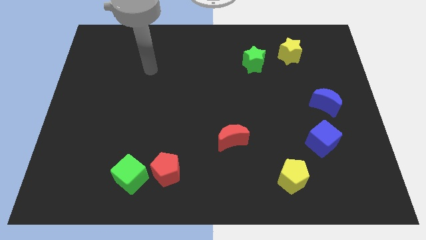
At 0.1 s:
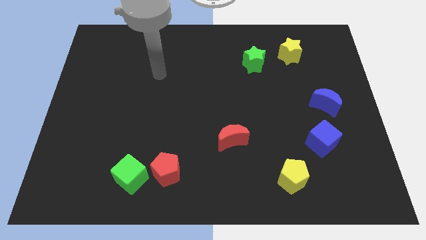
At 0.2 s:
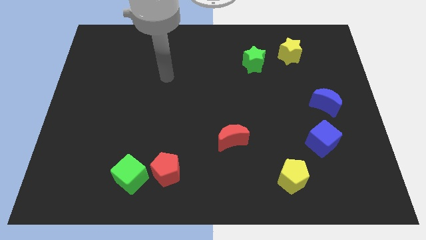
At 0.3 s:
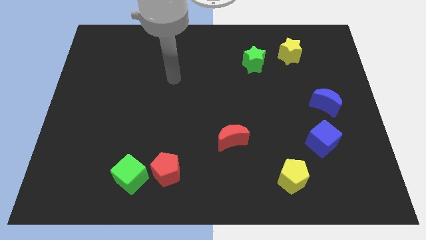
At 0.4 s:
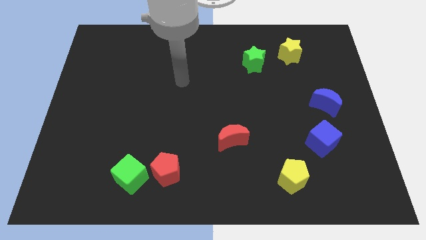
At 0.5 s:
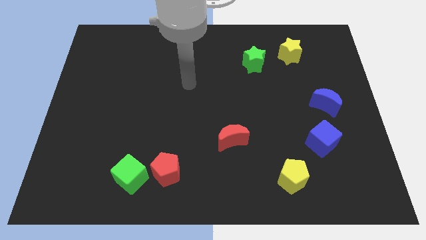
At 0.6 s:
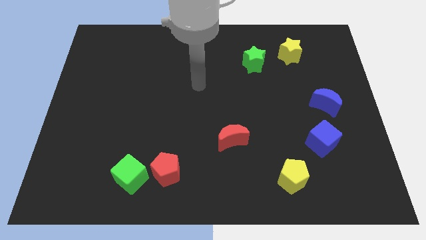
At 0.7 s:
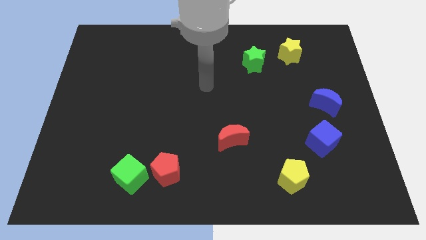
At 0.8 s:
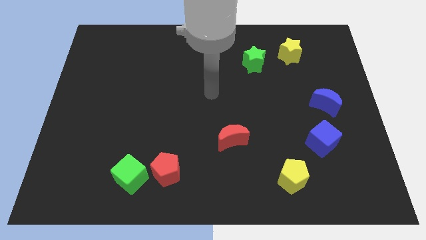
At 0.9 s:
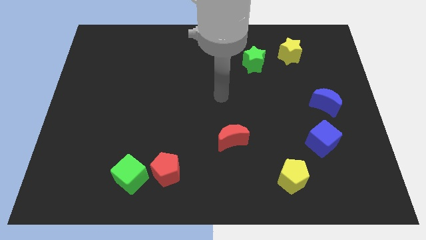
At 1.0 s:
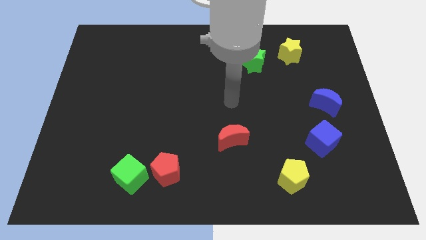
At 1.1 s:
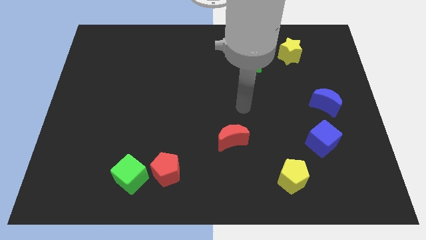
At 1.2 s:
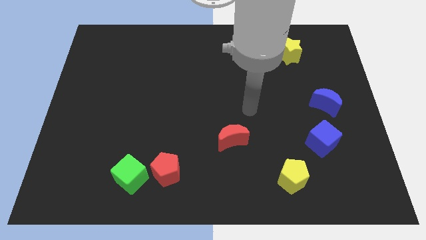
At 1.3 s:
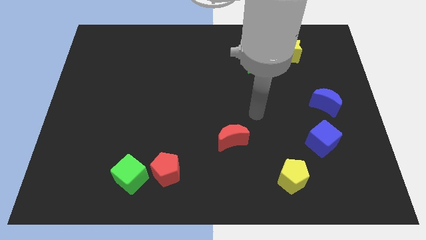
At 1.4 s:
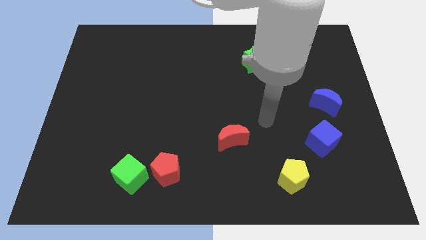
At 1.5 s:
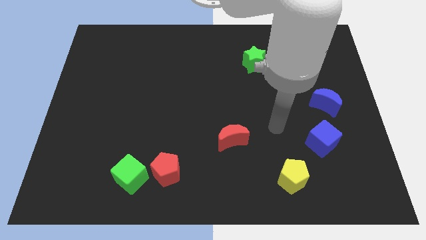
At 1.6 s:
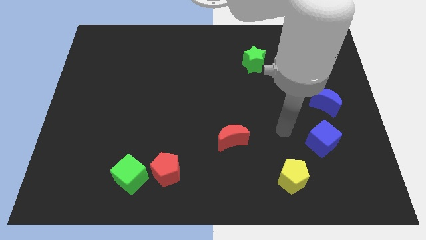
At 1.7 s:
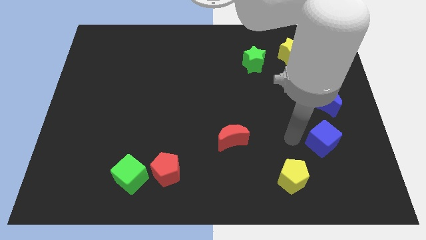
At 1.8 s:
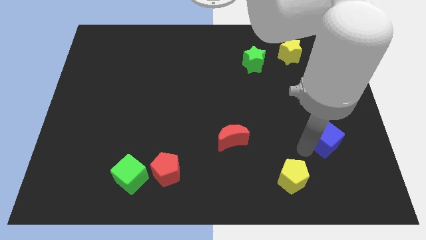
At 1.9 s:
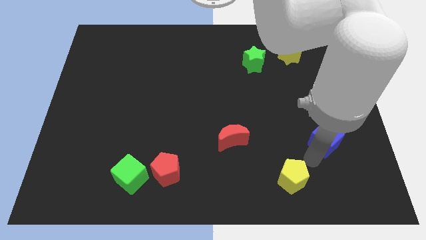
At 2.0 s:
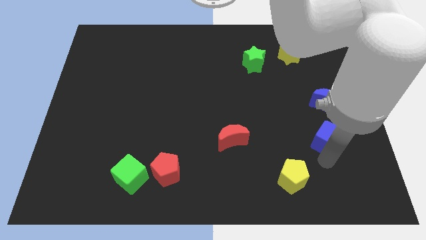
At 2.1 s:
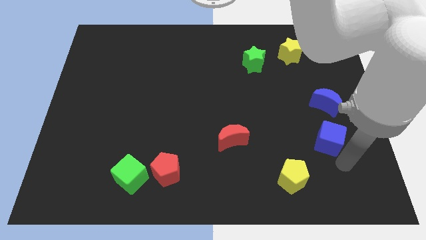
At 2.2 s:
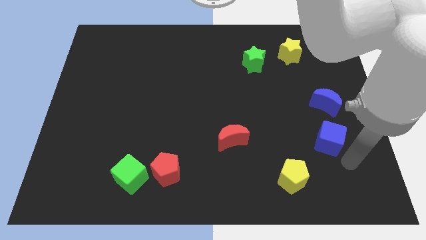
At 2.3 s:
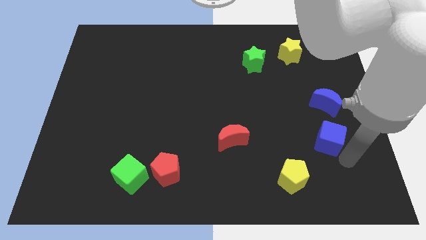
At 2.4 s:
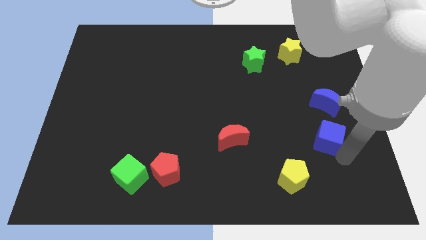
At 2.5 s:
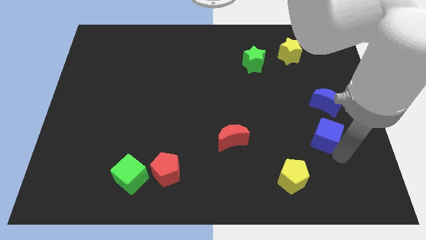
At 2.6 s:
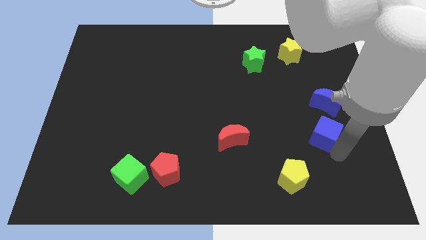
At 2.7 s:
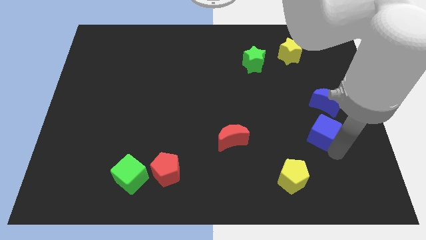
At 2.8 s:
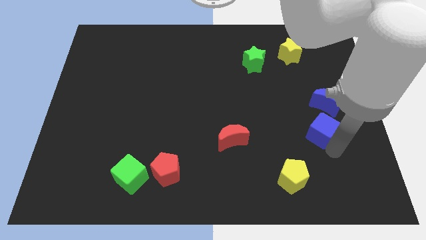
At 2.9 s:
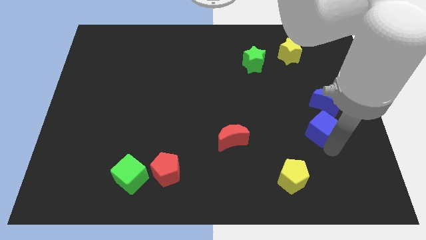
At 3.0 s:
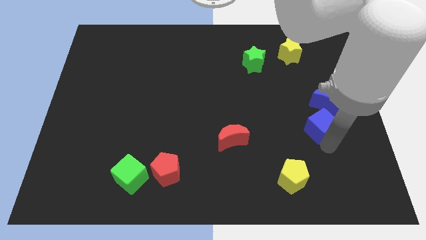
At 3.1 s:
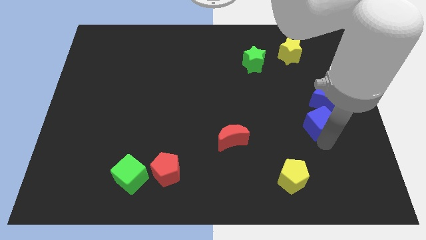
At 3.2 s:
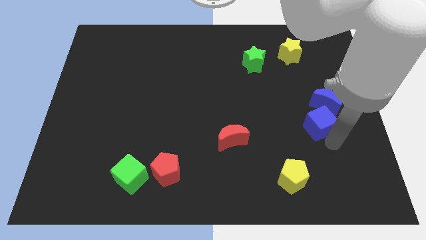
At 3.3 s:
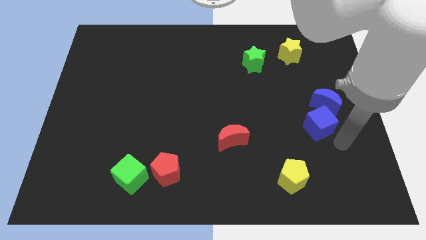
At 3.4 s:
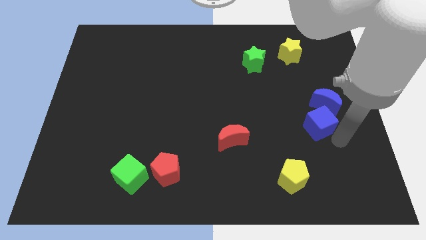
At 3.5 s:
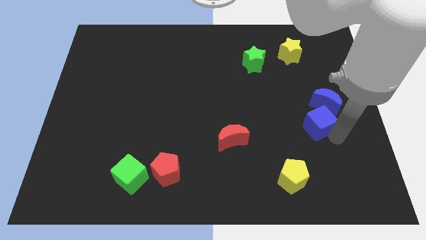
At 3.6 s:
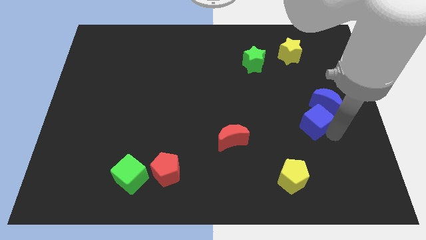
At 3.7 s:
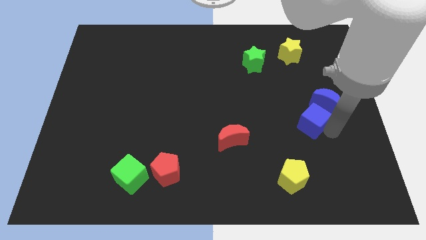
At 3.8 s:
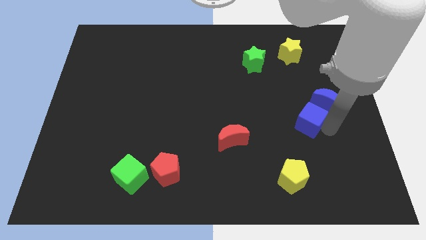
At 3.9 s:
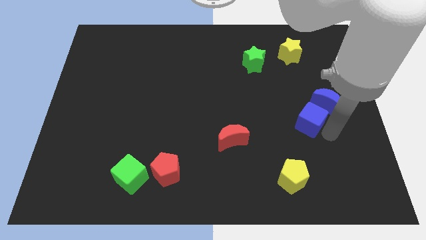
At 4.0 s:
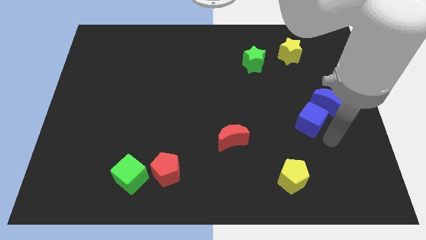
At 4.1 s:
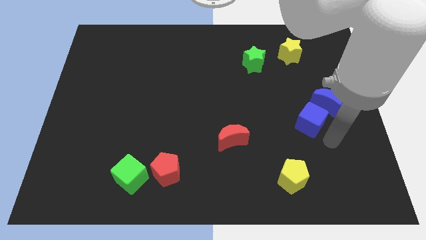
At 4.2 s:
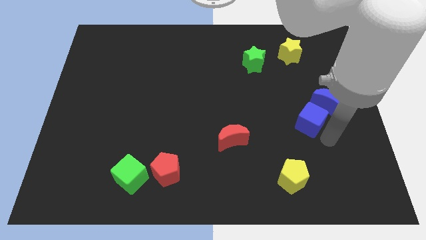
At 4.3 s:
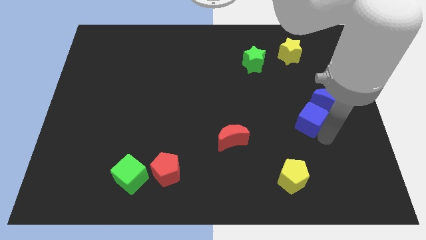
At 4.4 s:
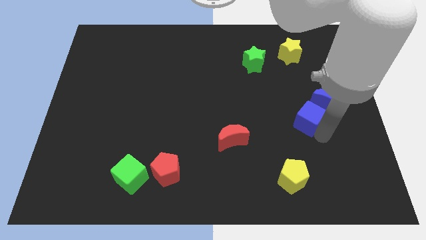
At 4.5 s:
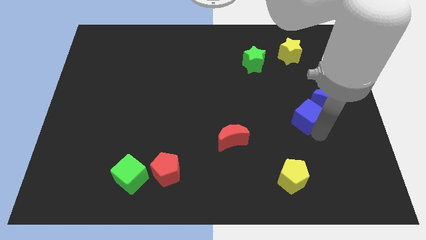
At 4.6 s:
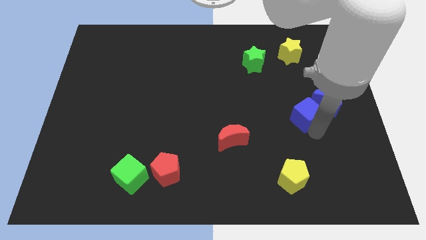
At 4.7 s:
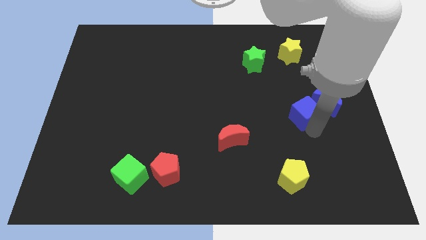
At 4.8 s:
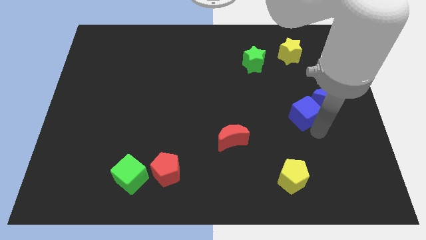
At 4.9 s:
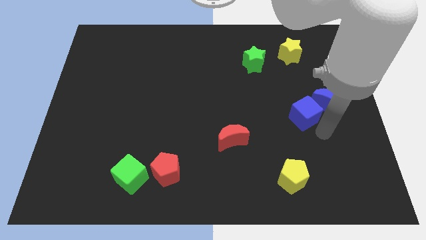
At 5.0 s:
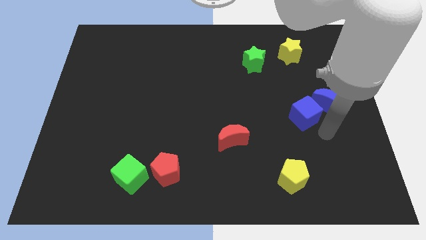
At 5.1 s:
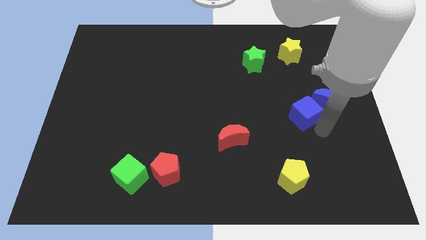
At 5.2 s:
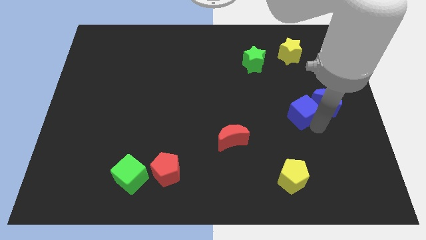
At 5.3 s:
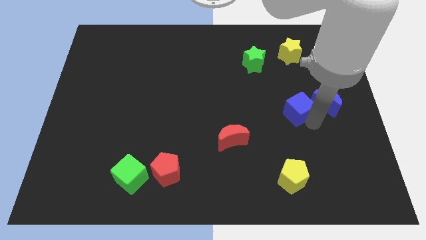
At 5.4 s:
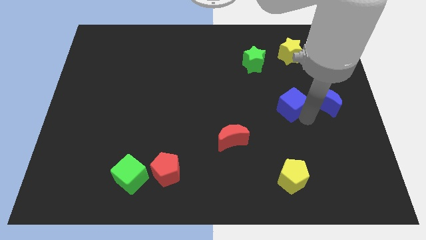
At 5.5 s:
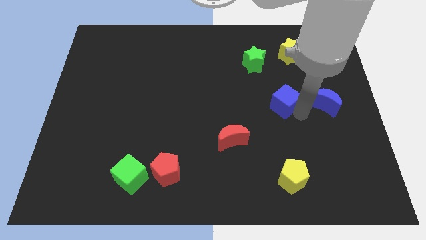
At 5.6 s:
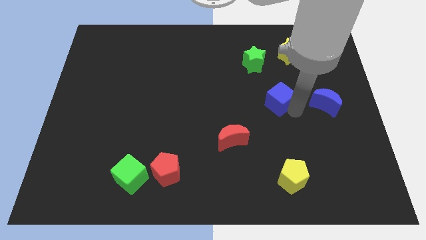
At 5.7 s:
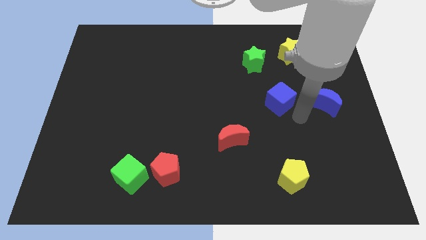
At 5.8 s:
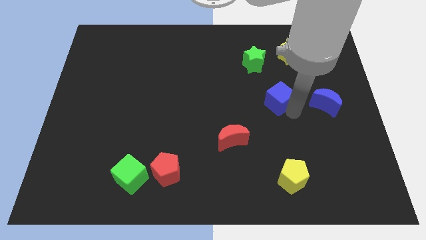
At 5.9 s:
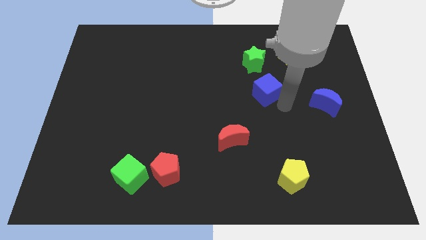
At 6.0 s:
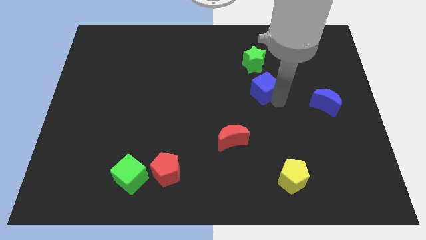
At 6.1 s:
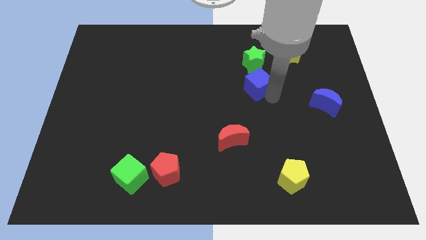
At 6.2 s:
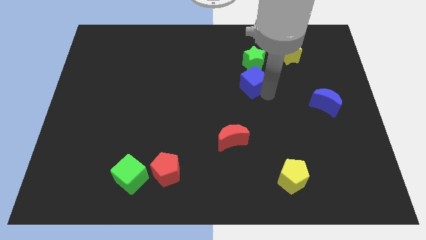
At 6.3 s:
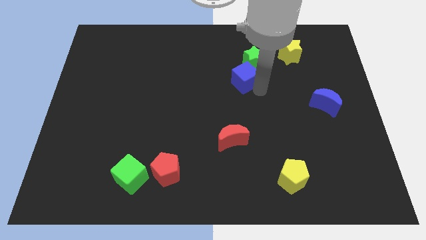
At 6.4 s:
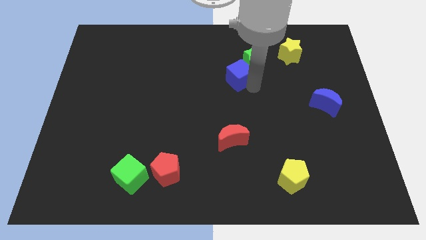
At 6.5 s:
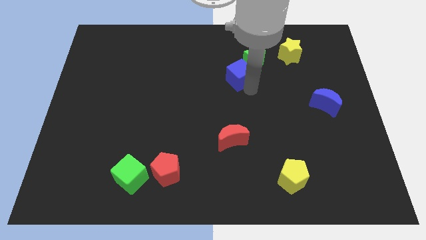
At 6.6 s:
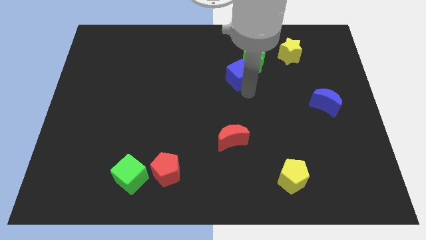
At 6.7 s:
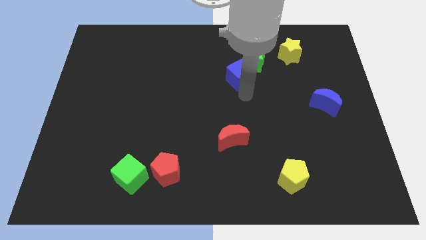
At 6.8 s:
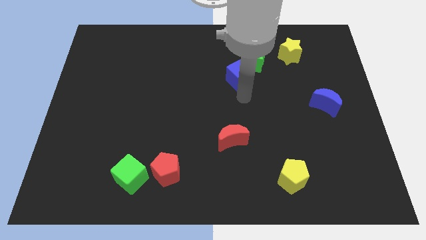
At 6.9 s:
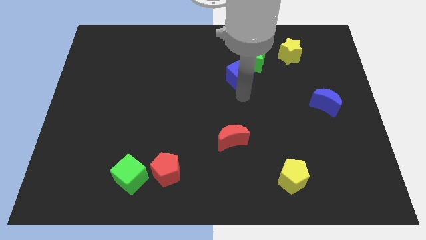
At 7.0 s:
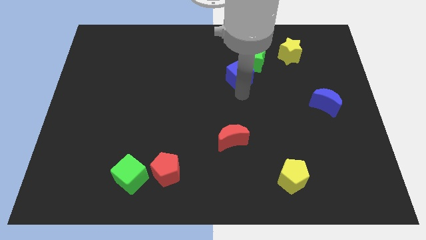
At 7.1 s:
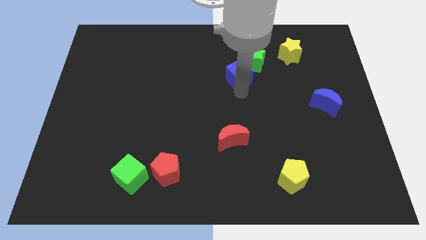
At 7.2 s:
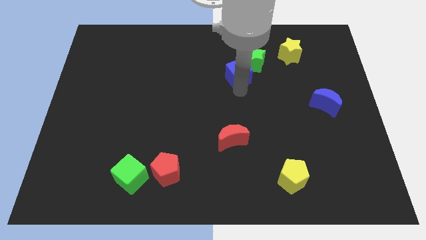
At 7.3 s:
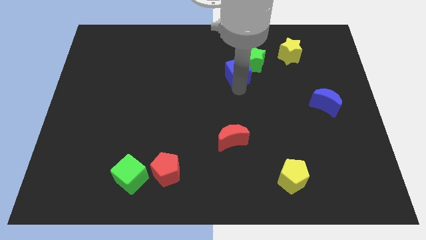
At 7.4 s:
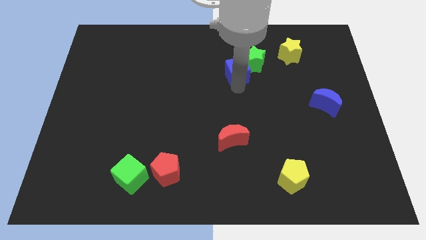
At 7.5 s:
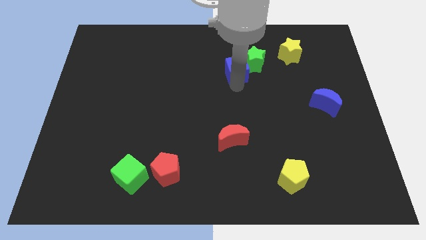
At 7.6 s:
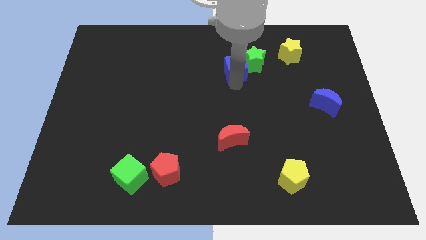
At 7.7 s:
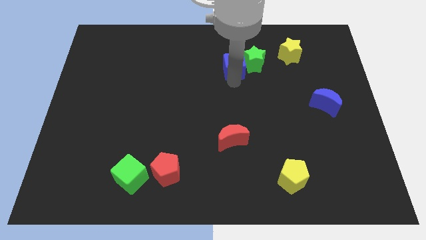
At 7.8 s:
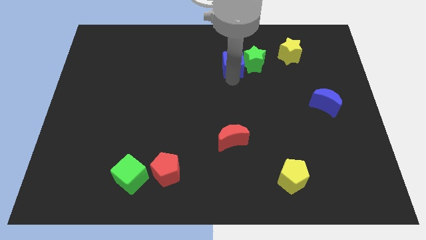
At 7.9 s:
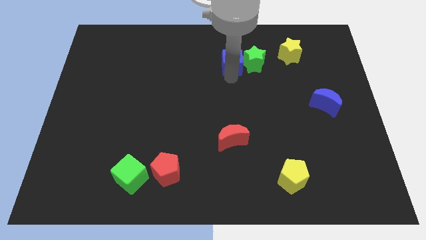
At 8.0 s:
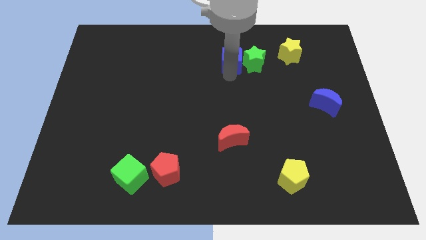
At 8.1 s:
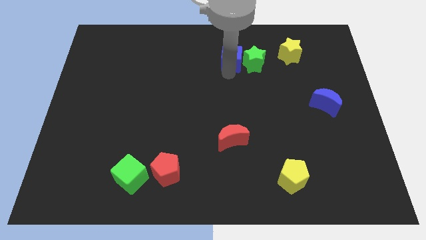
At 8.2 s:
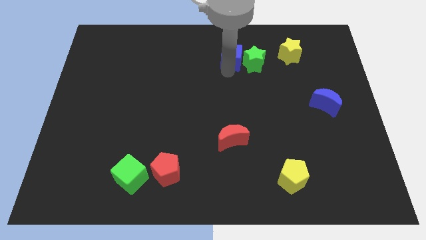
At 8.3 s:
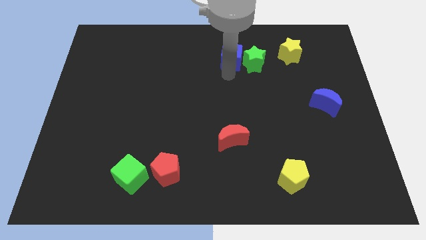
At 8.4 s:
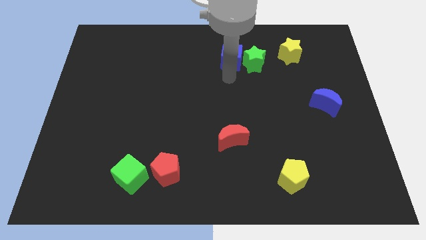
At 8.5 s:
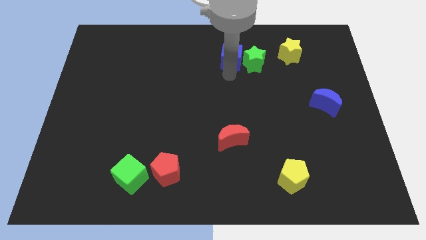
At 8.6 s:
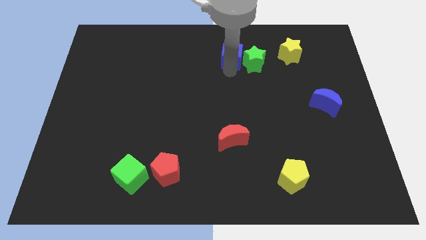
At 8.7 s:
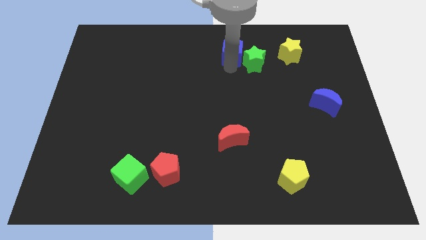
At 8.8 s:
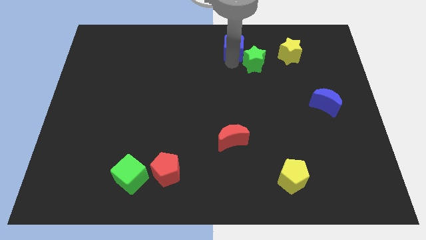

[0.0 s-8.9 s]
move the blue cube to the top side
